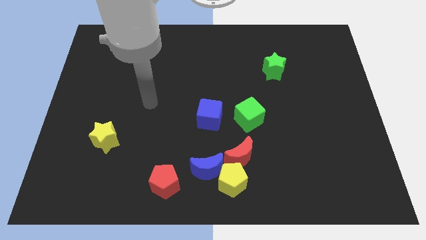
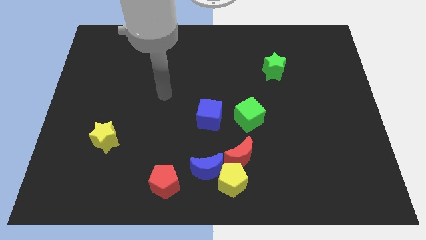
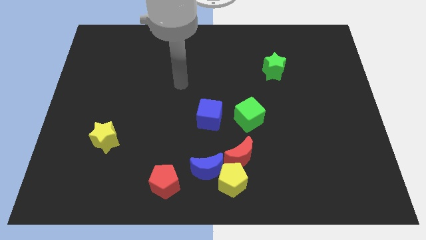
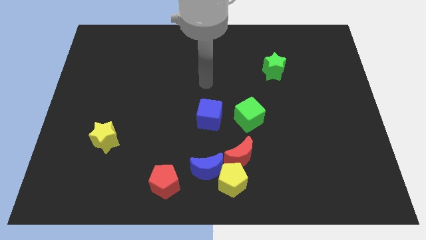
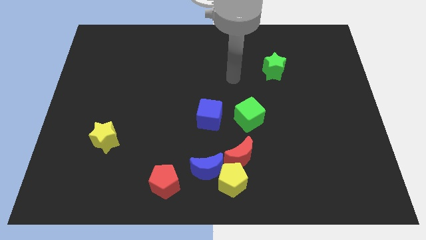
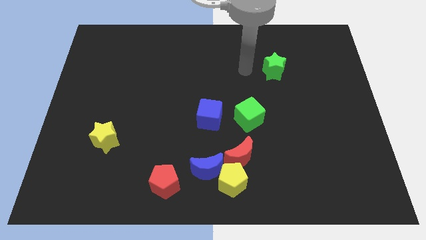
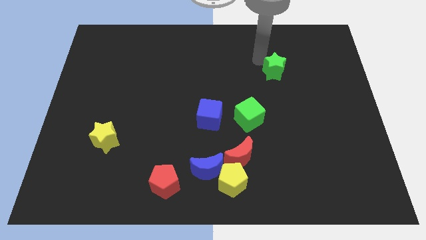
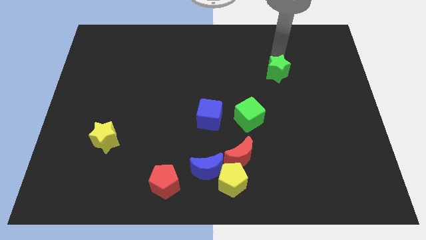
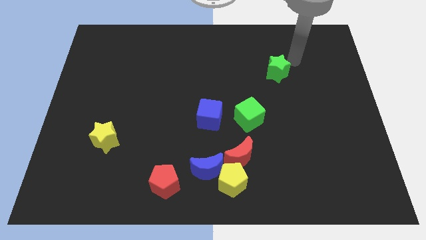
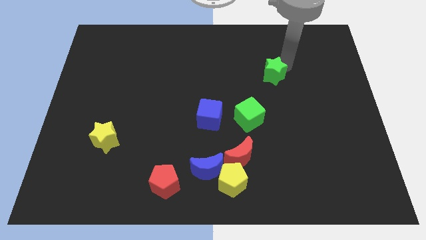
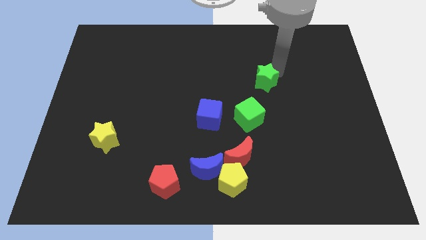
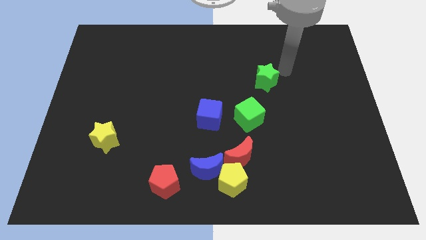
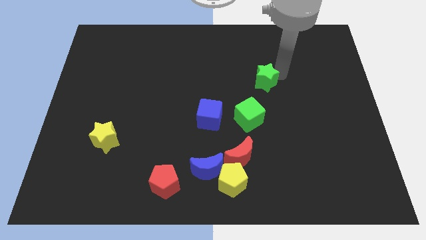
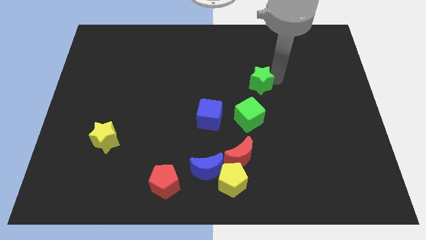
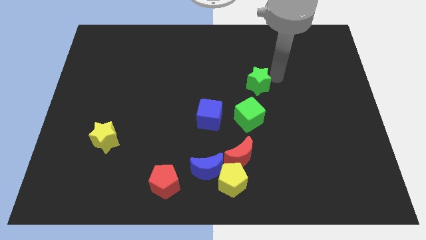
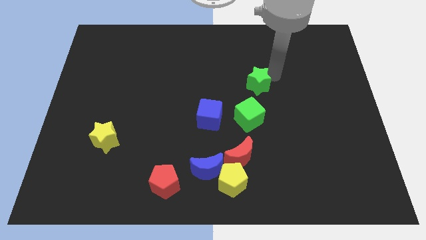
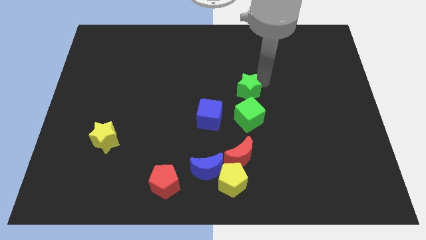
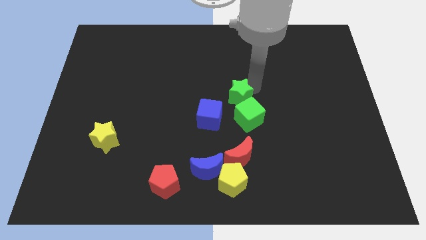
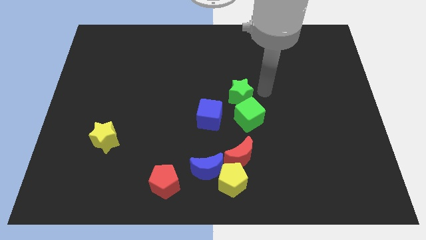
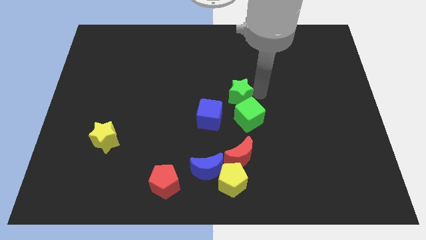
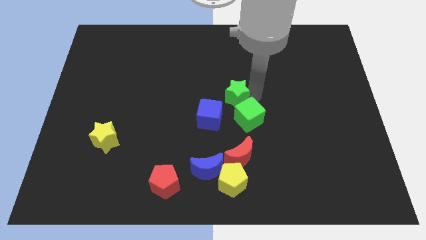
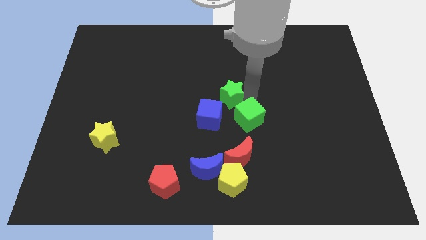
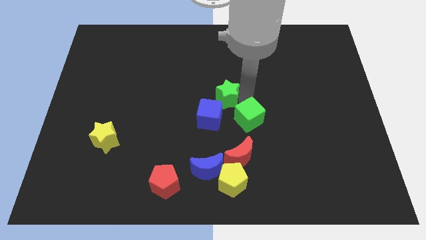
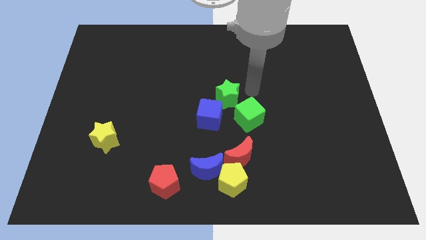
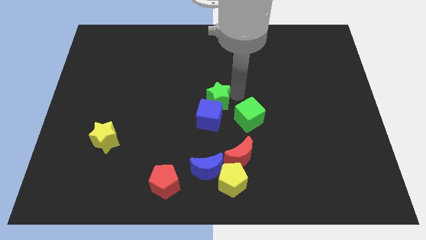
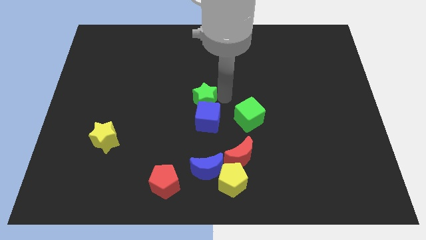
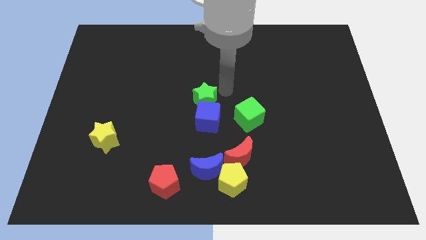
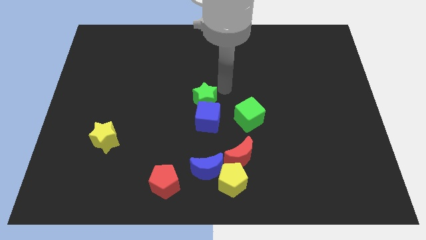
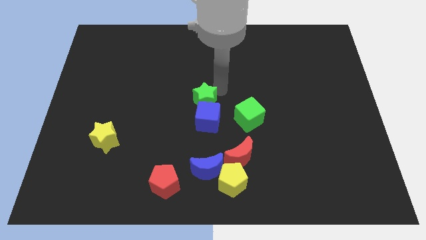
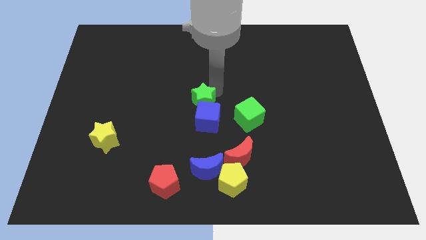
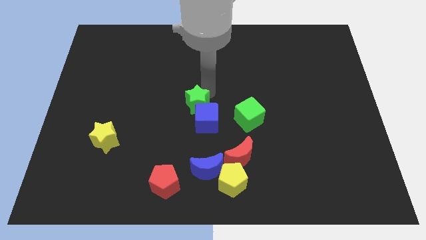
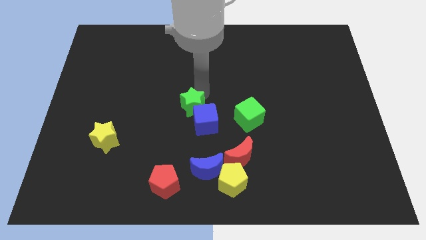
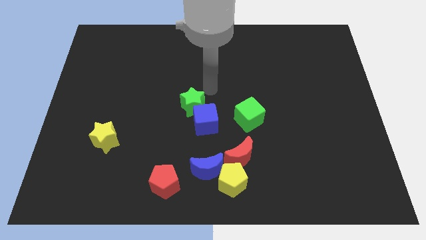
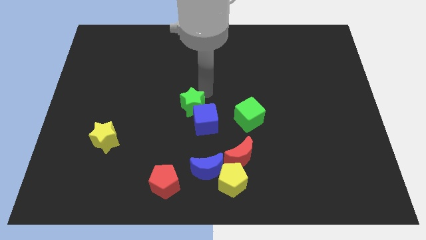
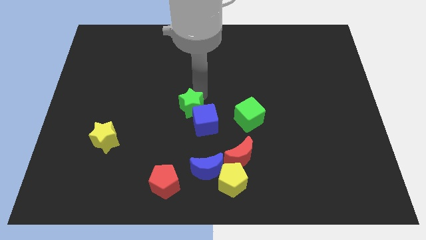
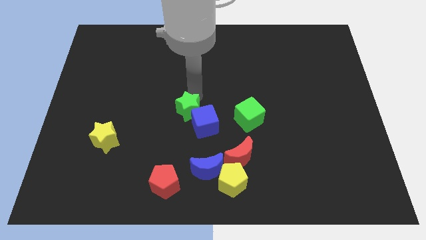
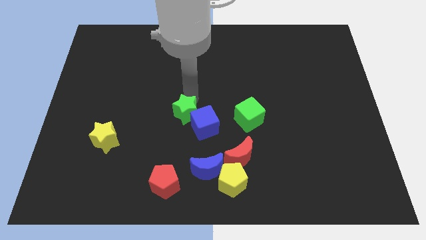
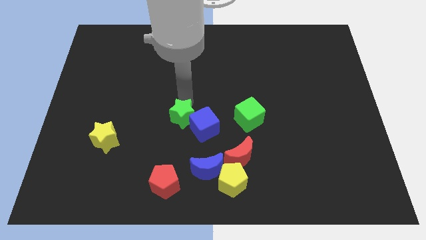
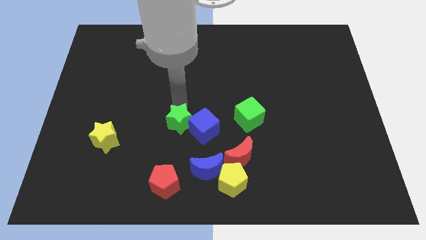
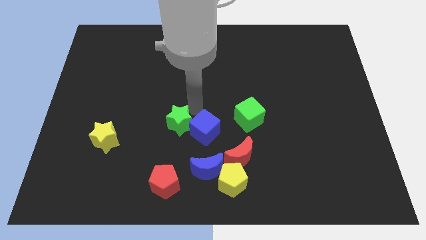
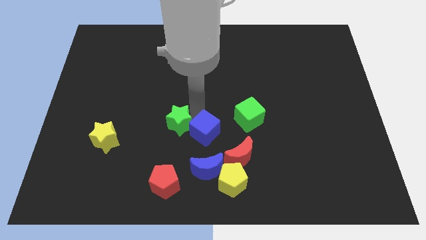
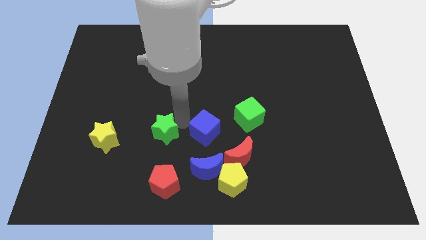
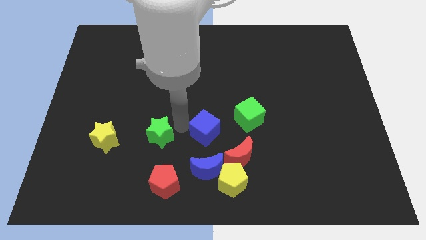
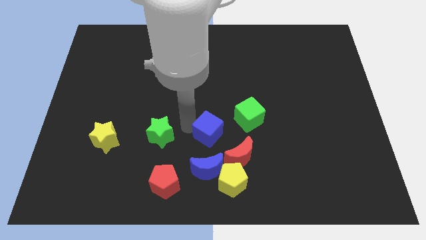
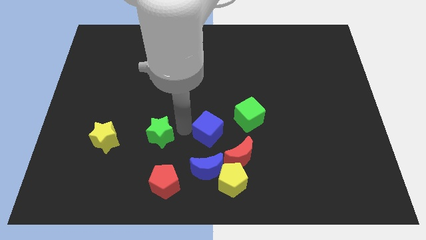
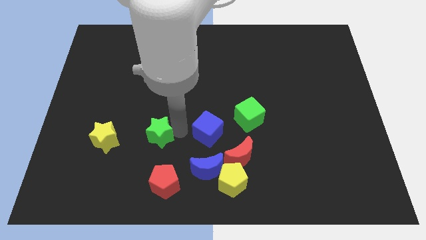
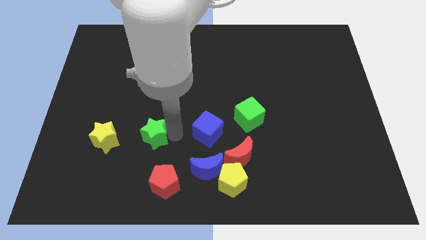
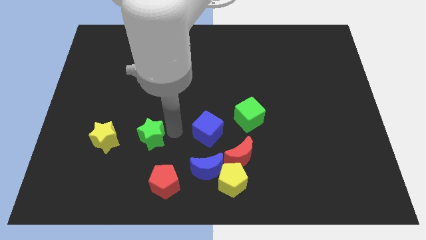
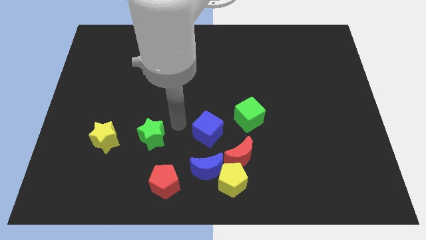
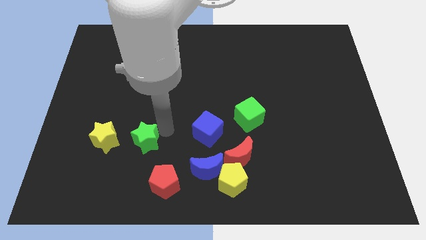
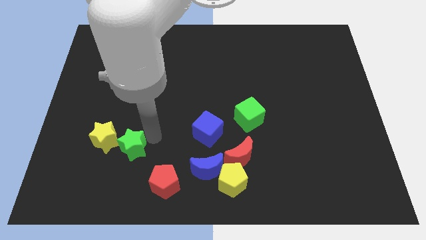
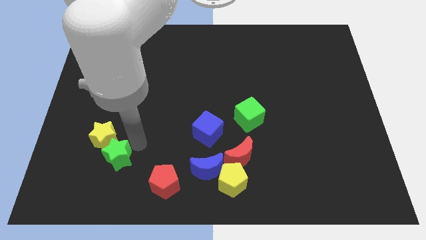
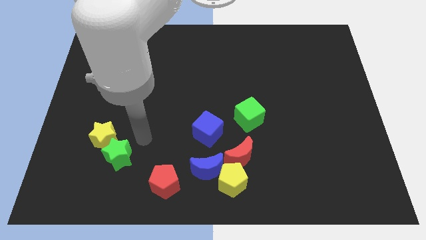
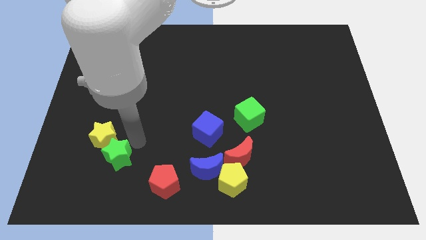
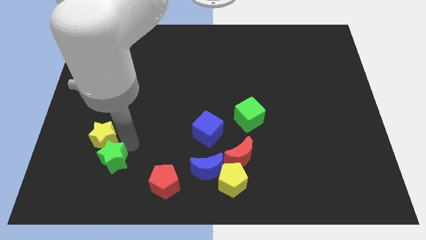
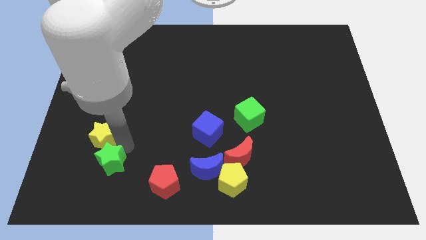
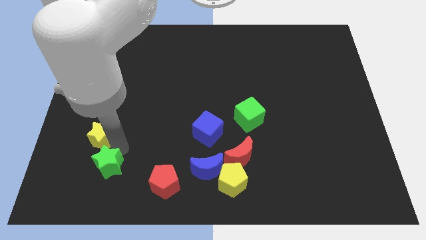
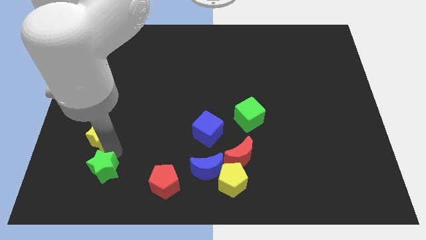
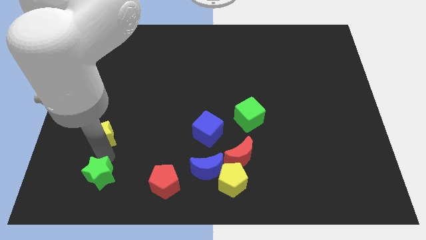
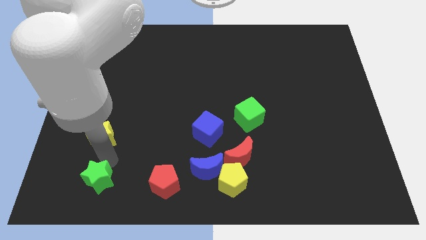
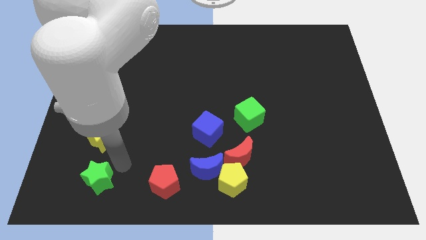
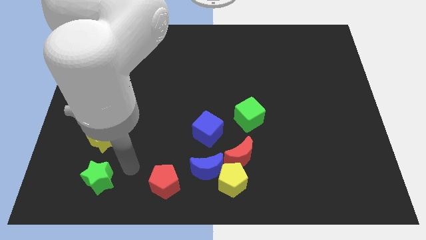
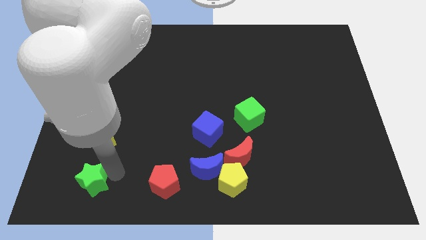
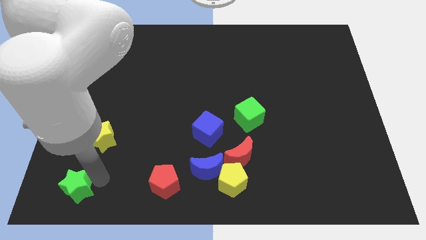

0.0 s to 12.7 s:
put the green star to the bottom left of the board
